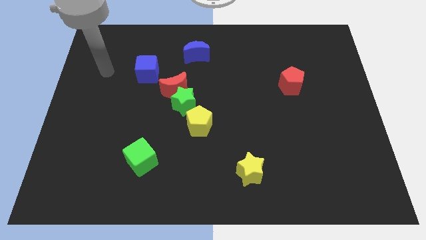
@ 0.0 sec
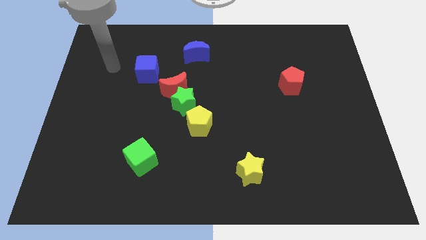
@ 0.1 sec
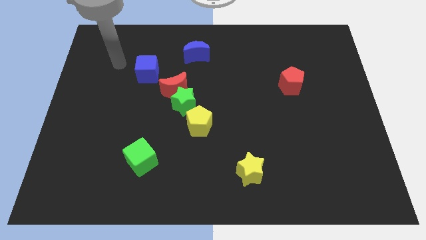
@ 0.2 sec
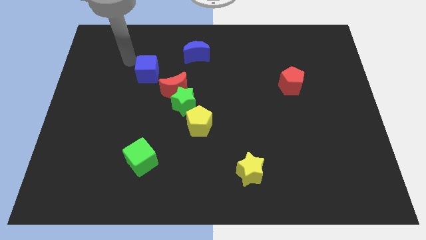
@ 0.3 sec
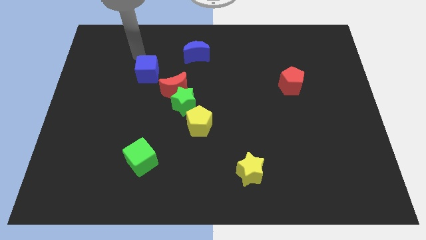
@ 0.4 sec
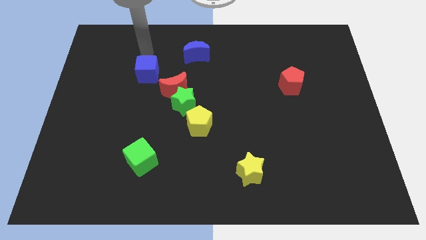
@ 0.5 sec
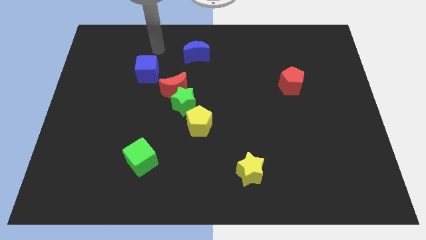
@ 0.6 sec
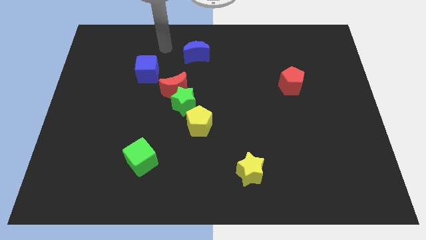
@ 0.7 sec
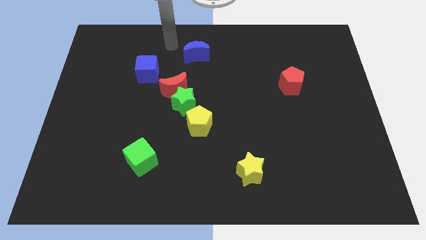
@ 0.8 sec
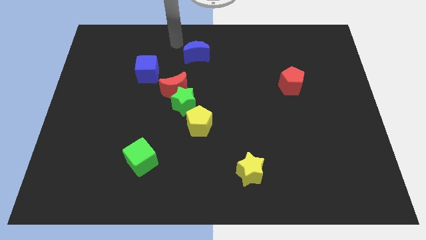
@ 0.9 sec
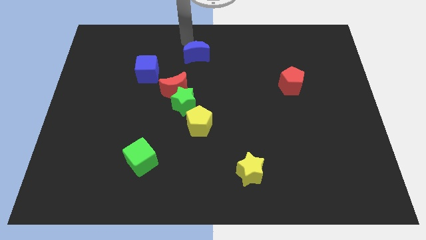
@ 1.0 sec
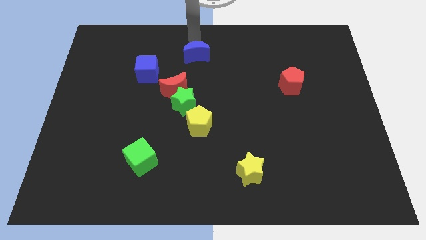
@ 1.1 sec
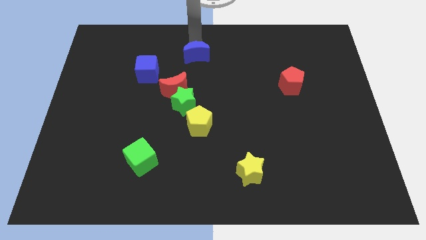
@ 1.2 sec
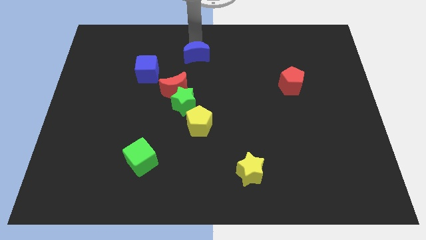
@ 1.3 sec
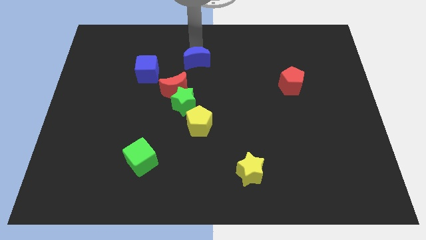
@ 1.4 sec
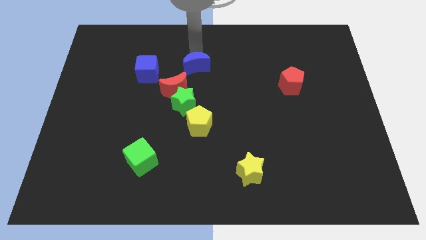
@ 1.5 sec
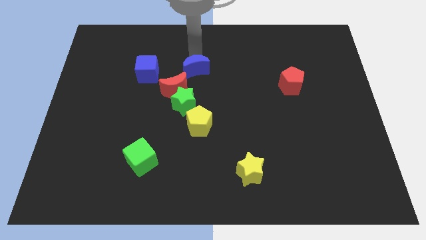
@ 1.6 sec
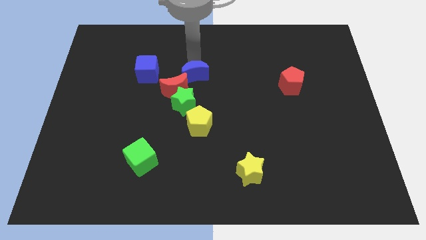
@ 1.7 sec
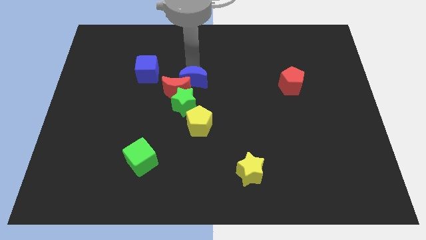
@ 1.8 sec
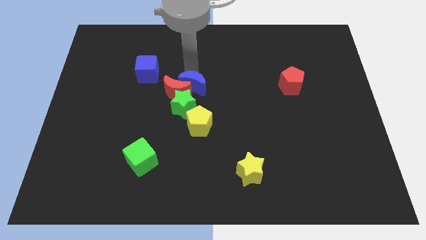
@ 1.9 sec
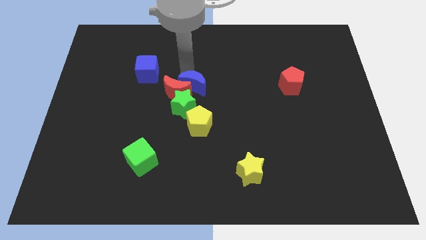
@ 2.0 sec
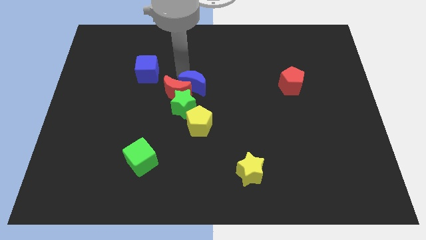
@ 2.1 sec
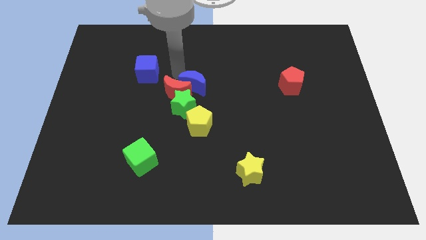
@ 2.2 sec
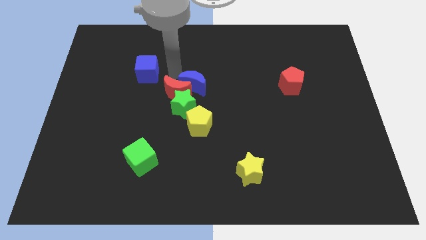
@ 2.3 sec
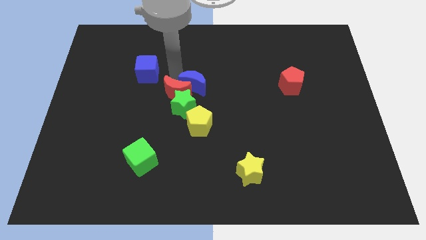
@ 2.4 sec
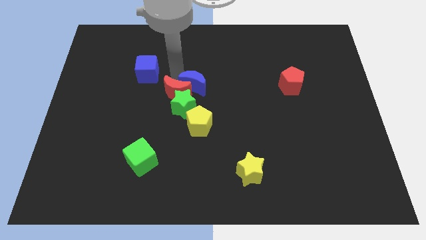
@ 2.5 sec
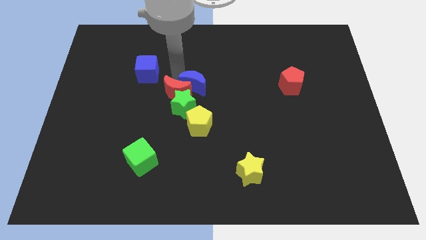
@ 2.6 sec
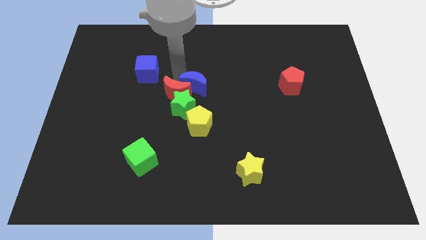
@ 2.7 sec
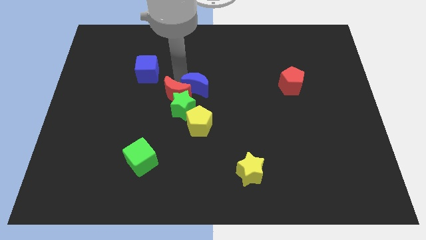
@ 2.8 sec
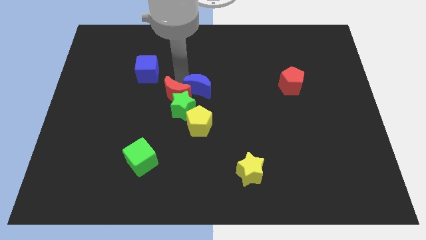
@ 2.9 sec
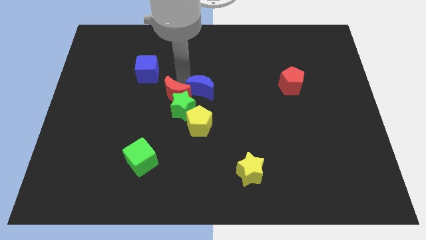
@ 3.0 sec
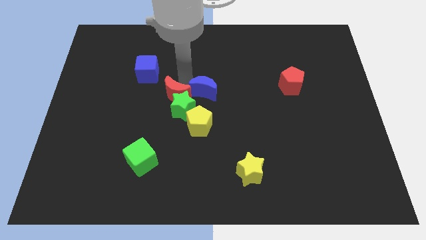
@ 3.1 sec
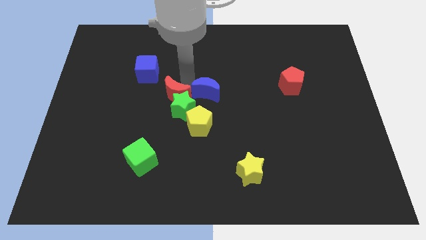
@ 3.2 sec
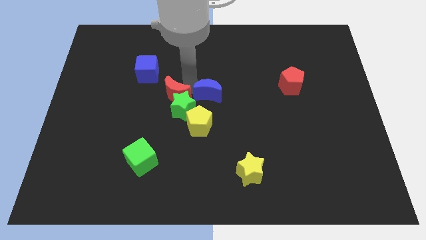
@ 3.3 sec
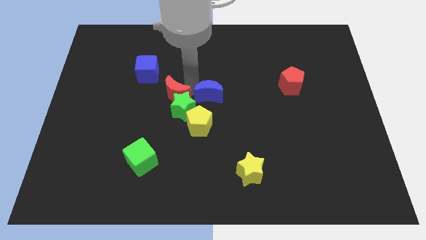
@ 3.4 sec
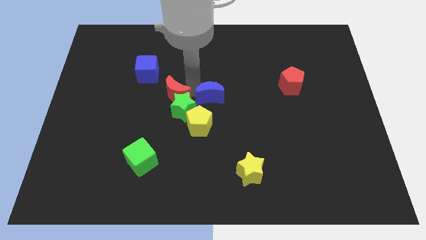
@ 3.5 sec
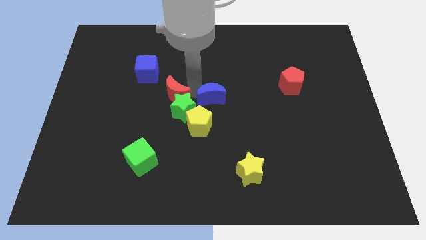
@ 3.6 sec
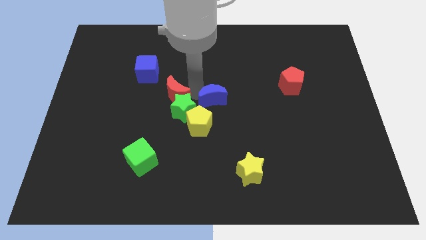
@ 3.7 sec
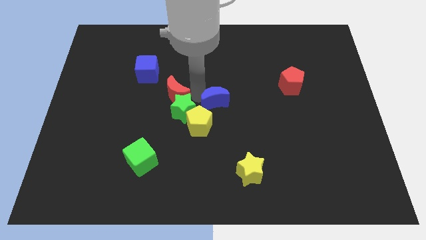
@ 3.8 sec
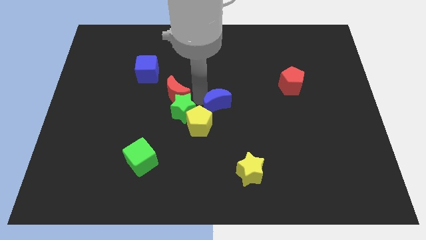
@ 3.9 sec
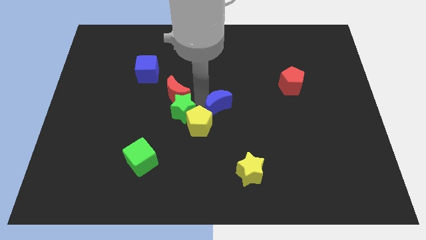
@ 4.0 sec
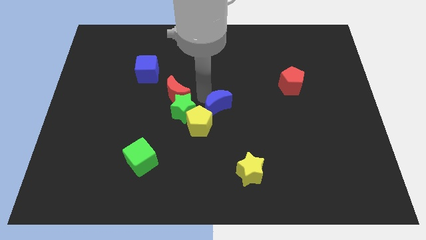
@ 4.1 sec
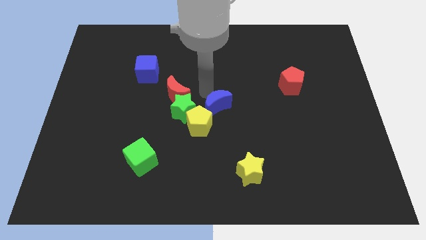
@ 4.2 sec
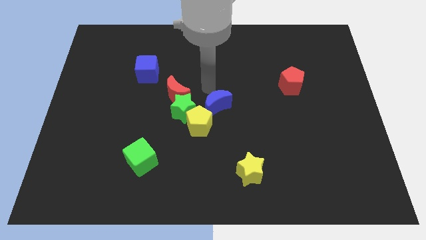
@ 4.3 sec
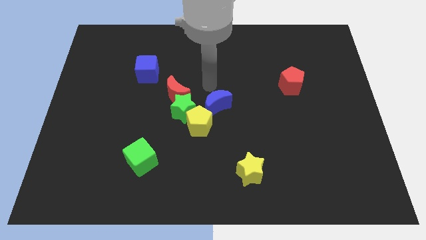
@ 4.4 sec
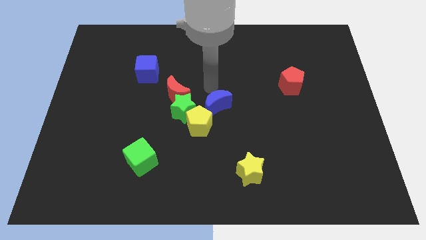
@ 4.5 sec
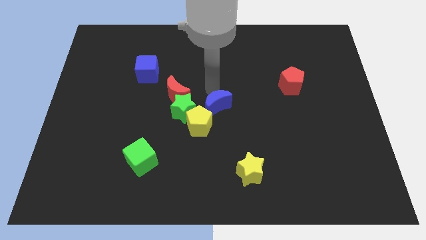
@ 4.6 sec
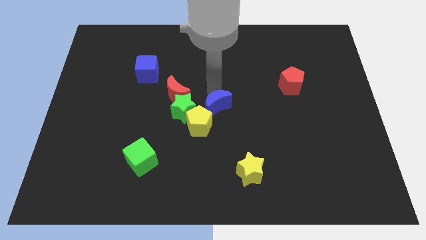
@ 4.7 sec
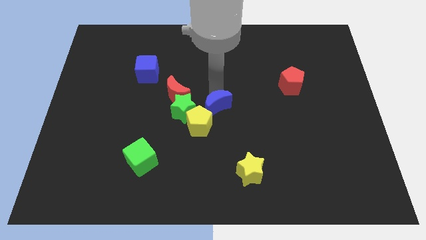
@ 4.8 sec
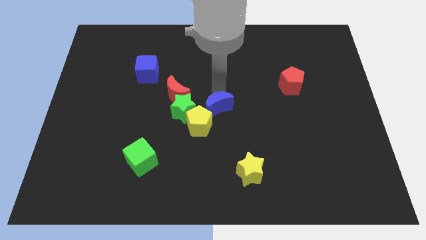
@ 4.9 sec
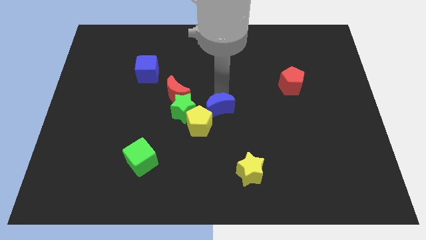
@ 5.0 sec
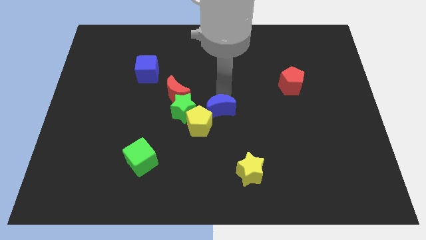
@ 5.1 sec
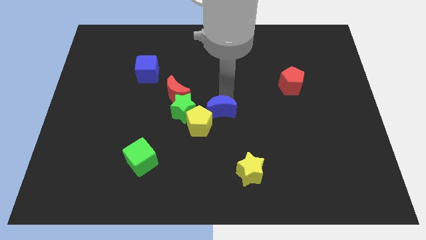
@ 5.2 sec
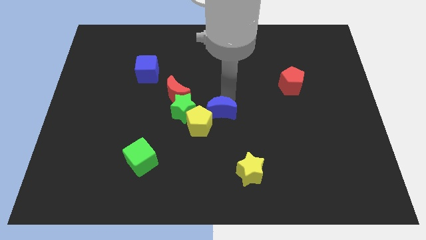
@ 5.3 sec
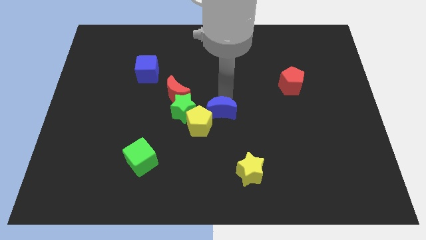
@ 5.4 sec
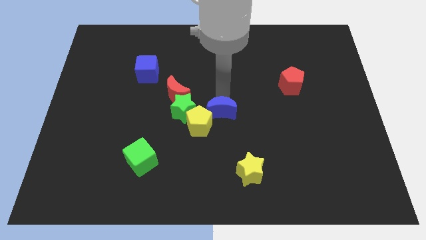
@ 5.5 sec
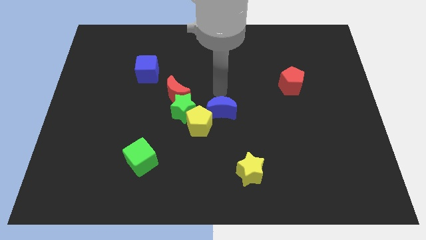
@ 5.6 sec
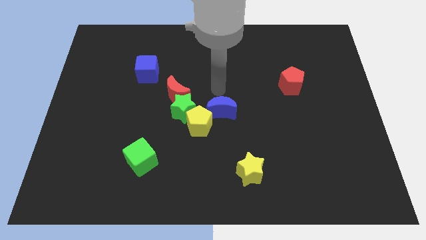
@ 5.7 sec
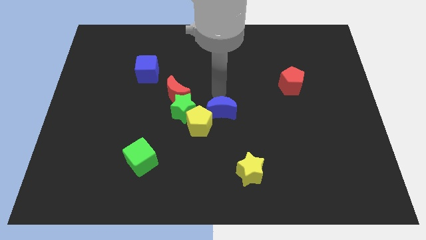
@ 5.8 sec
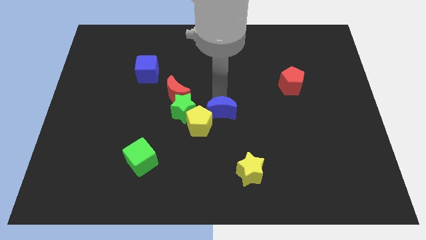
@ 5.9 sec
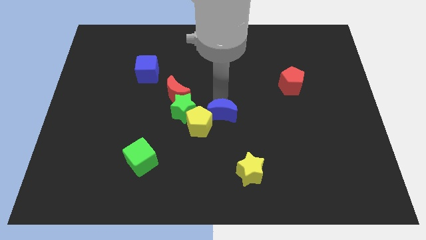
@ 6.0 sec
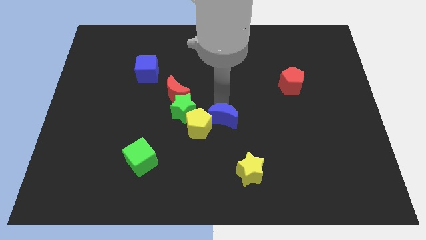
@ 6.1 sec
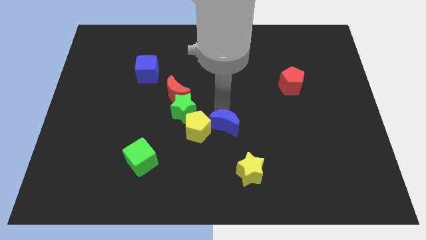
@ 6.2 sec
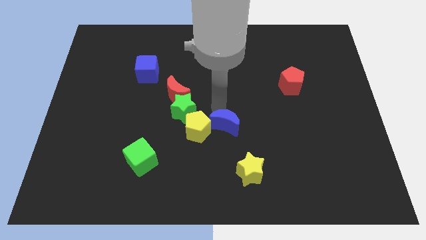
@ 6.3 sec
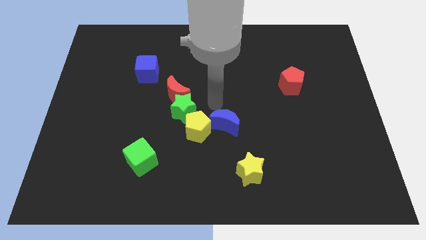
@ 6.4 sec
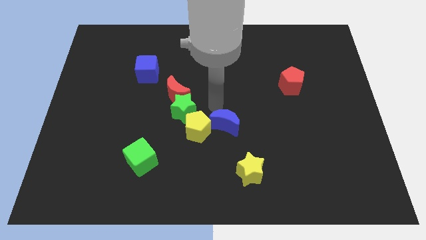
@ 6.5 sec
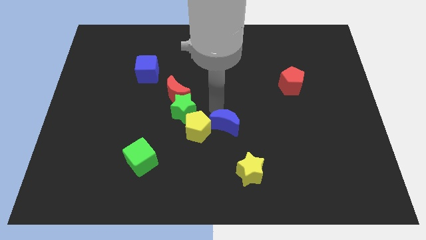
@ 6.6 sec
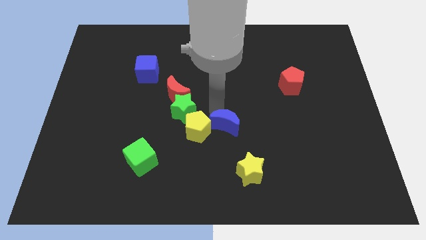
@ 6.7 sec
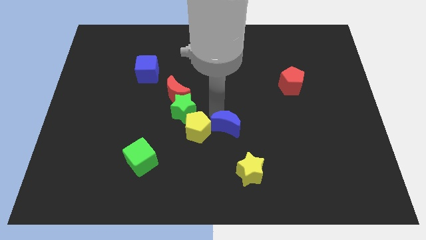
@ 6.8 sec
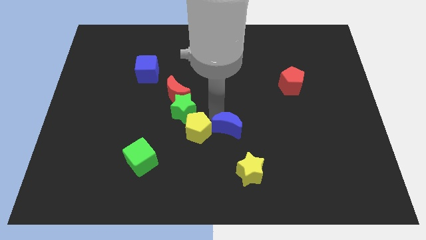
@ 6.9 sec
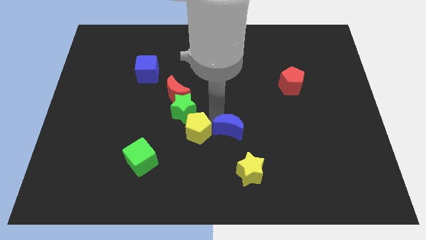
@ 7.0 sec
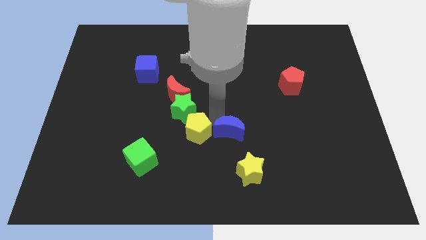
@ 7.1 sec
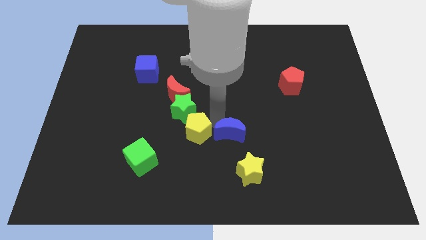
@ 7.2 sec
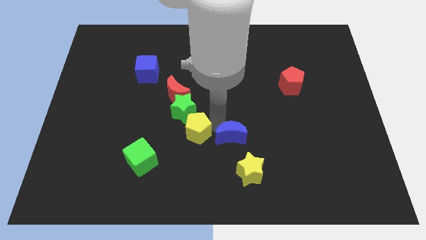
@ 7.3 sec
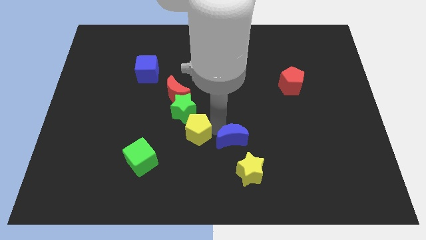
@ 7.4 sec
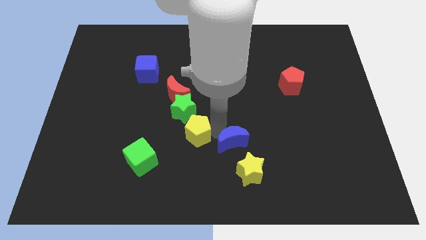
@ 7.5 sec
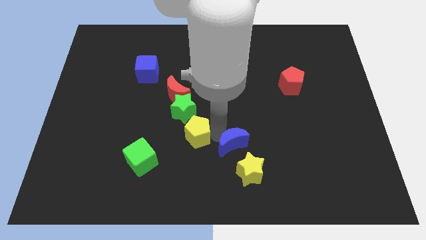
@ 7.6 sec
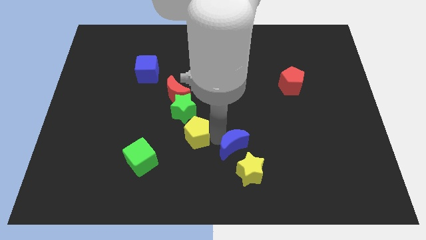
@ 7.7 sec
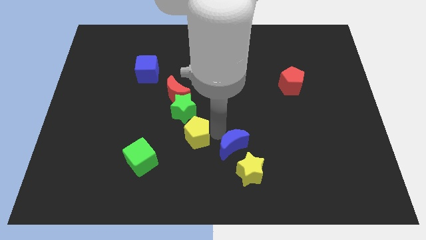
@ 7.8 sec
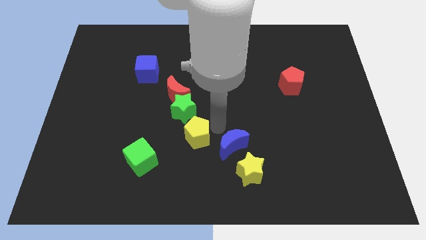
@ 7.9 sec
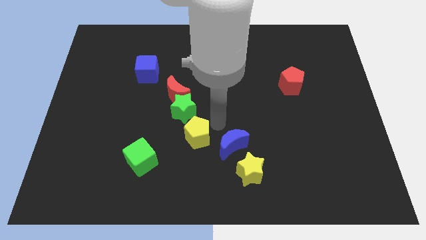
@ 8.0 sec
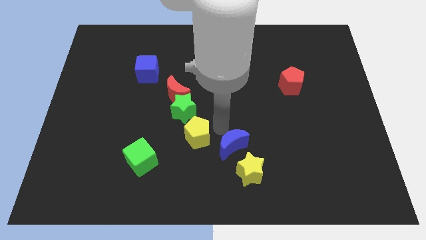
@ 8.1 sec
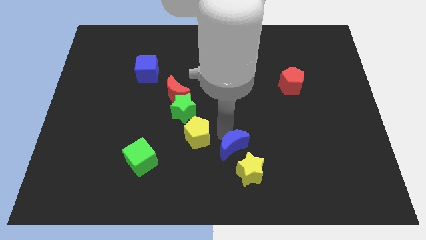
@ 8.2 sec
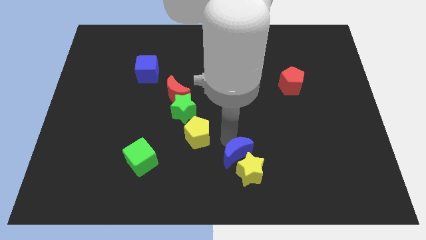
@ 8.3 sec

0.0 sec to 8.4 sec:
push the blue moon to the yellow star
